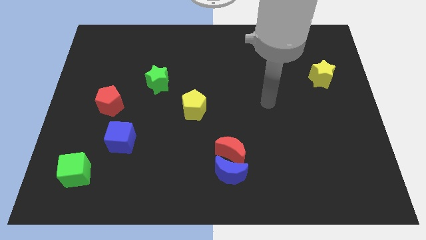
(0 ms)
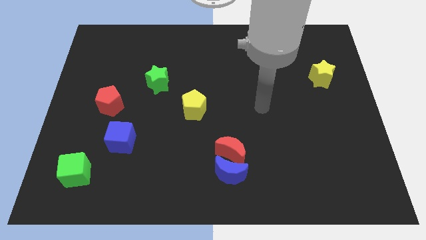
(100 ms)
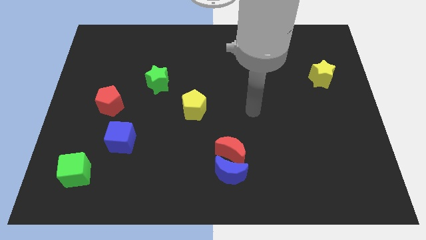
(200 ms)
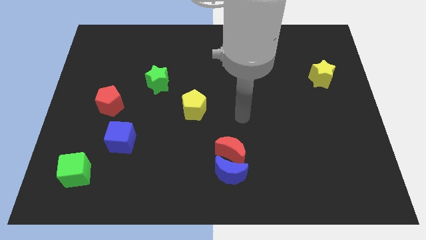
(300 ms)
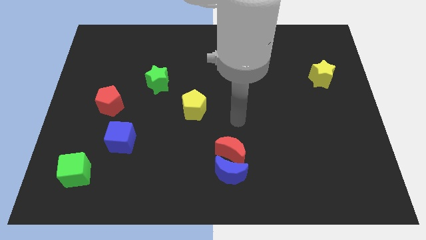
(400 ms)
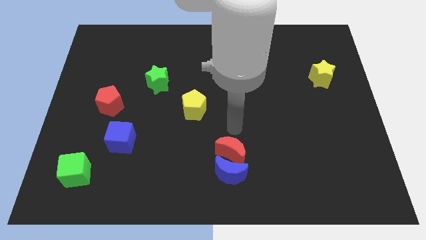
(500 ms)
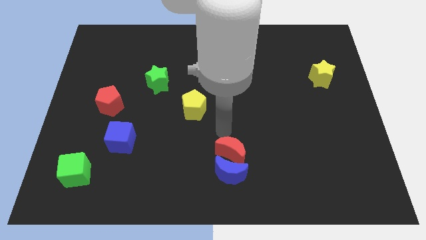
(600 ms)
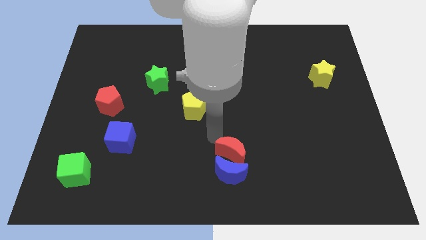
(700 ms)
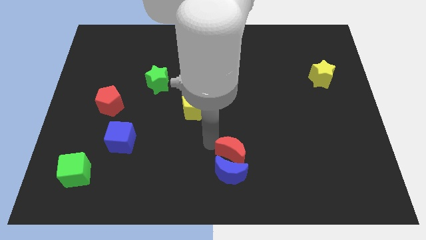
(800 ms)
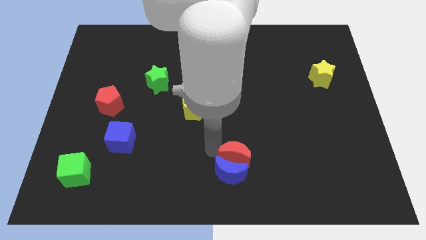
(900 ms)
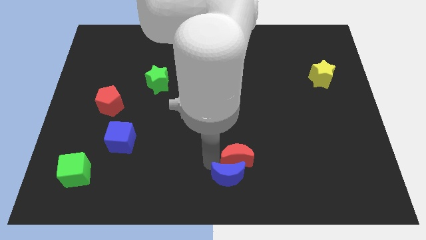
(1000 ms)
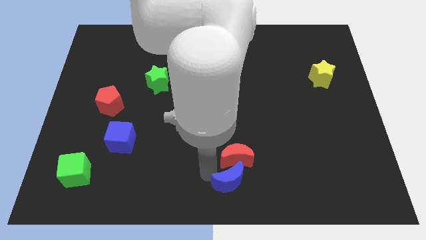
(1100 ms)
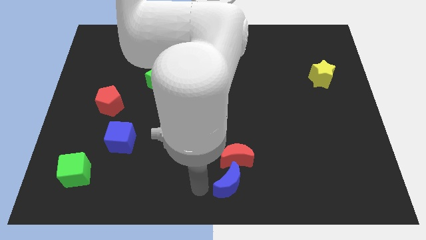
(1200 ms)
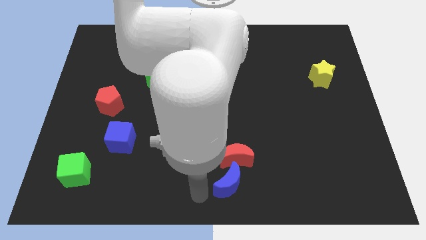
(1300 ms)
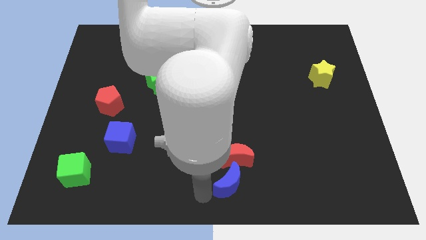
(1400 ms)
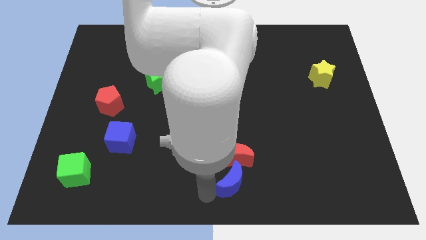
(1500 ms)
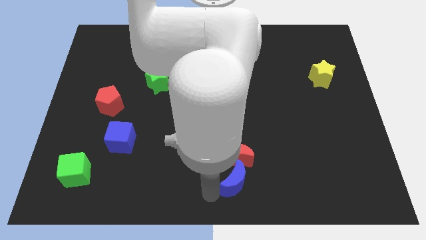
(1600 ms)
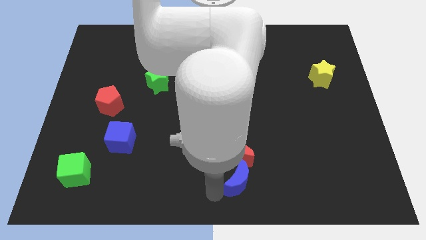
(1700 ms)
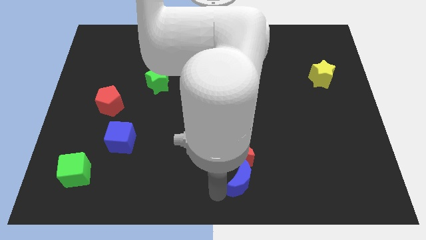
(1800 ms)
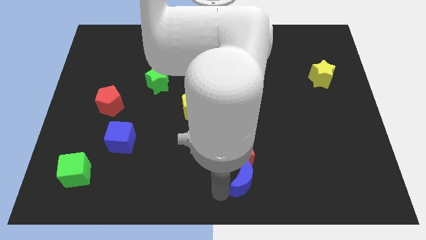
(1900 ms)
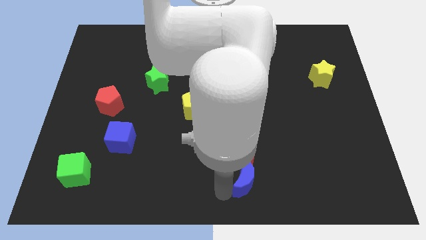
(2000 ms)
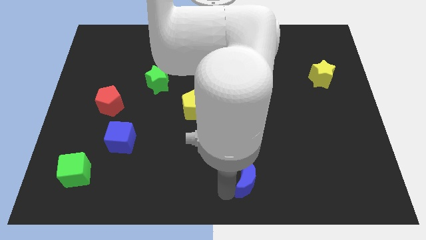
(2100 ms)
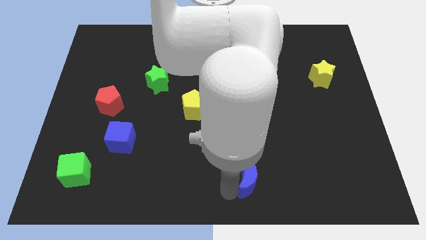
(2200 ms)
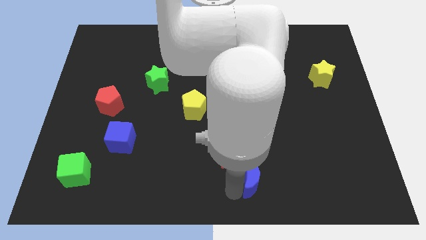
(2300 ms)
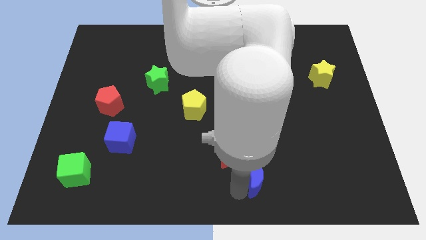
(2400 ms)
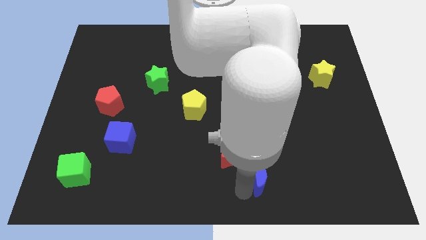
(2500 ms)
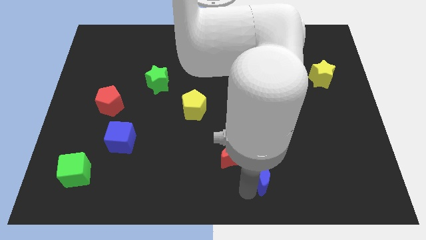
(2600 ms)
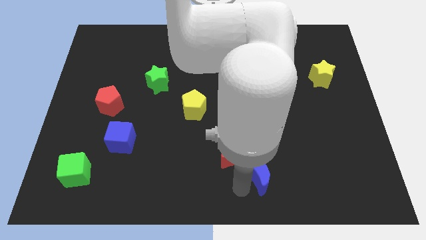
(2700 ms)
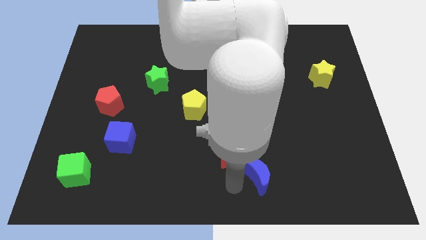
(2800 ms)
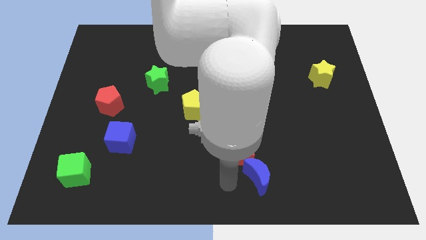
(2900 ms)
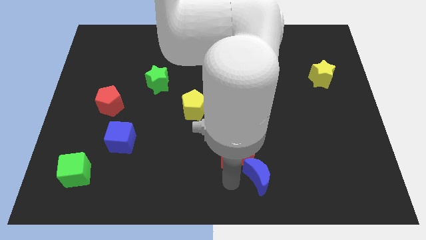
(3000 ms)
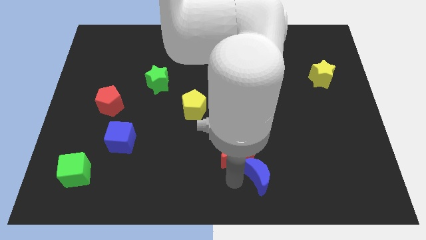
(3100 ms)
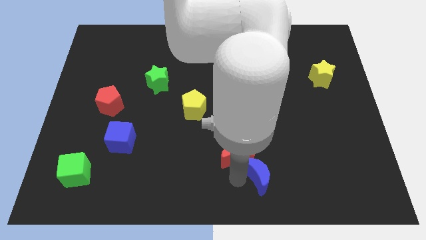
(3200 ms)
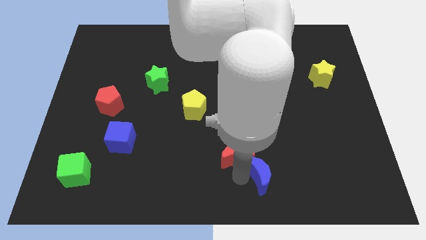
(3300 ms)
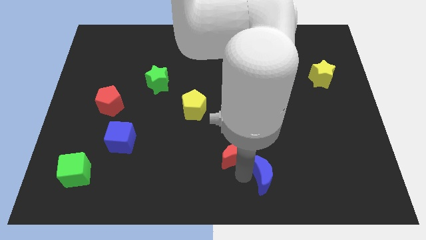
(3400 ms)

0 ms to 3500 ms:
push the blue moon right somewhat

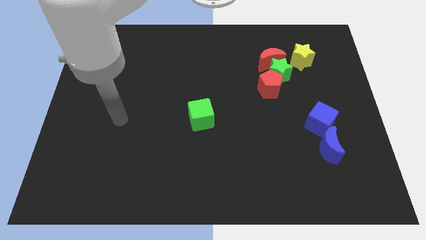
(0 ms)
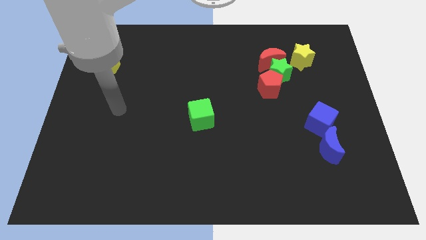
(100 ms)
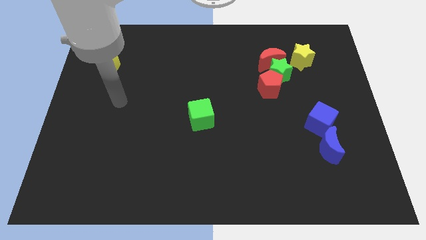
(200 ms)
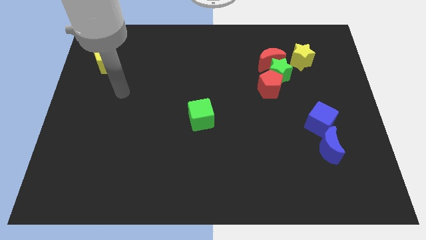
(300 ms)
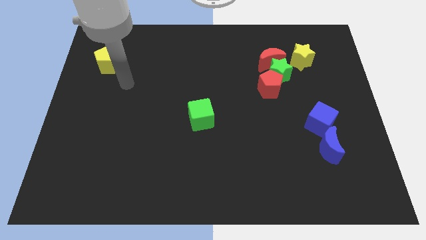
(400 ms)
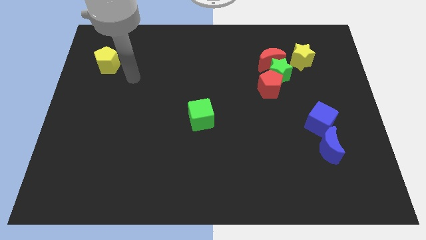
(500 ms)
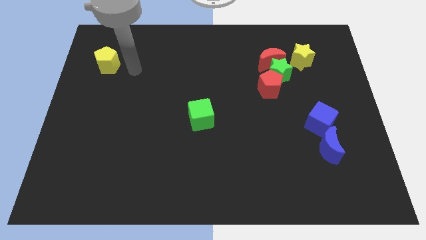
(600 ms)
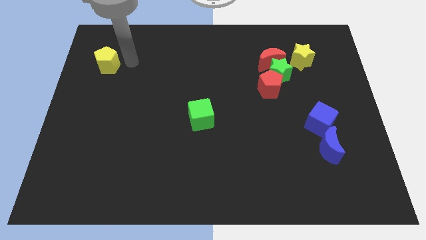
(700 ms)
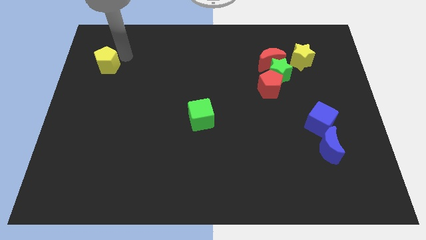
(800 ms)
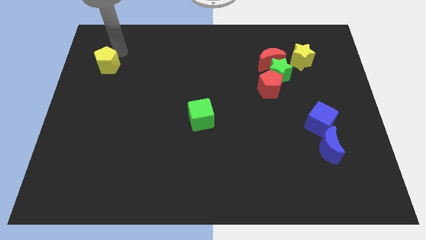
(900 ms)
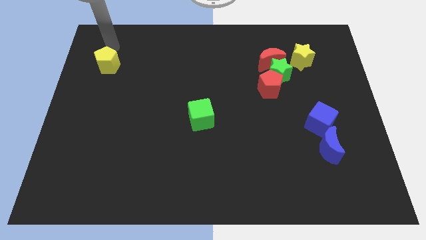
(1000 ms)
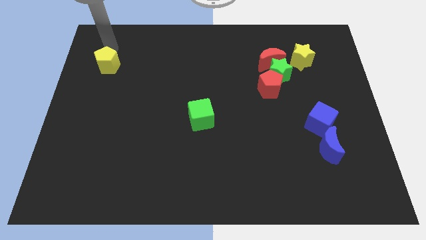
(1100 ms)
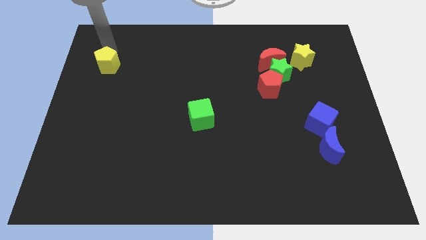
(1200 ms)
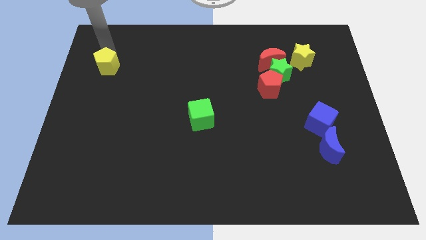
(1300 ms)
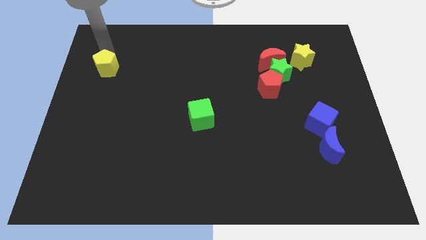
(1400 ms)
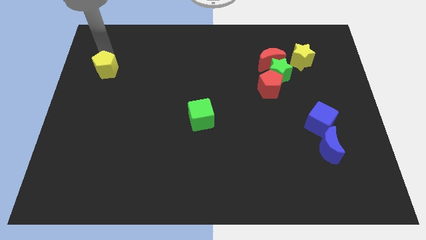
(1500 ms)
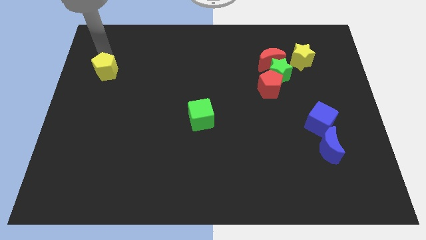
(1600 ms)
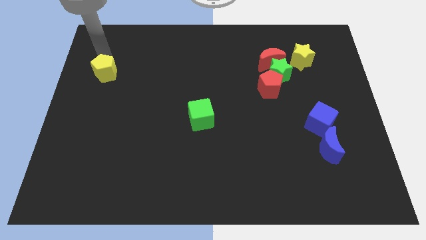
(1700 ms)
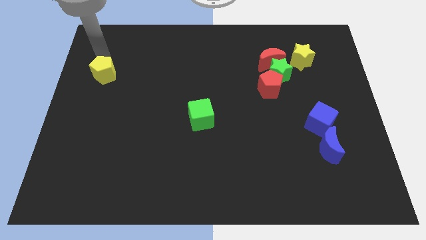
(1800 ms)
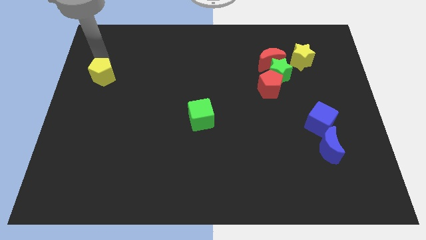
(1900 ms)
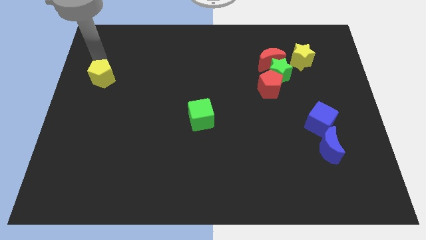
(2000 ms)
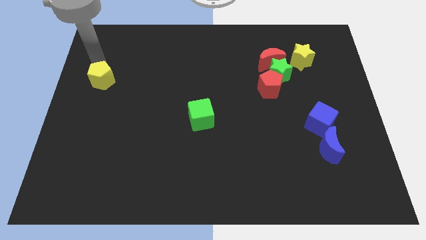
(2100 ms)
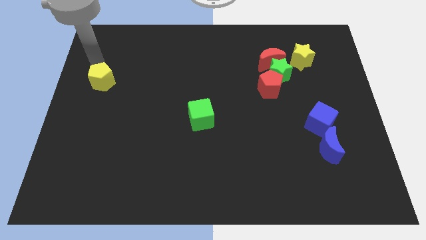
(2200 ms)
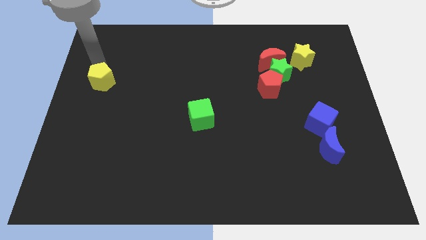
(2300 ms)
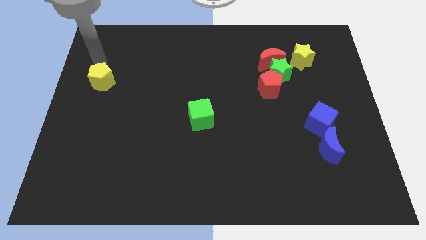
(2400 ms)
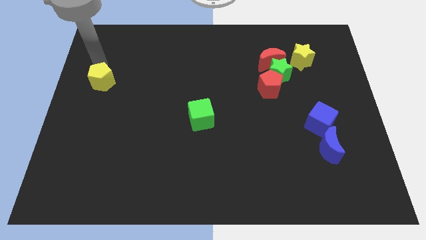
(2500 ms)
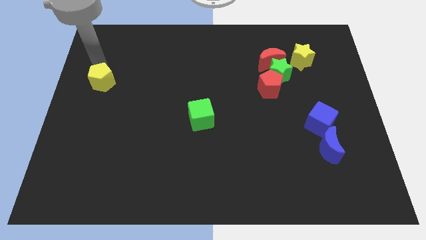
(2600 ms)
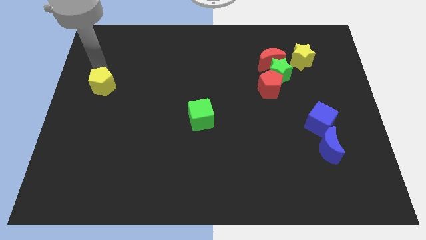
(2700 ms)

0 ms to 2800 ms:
slightly slide the yellow pentagon down

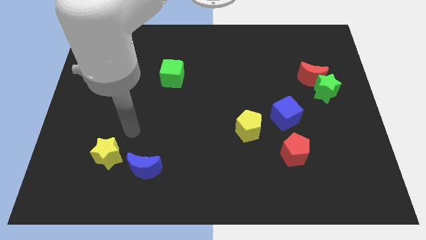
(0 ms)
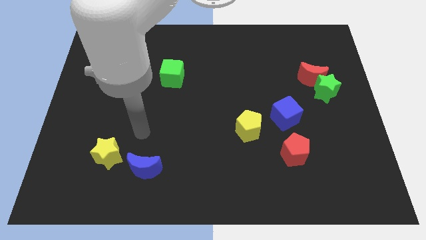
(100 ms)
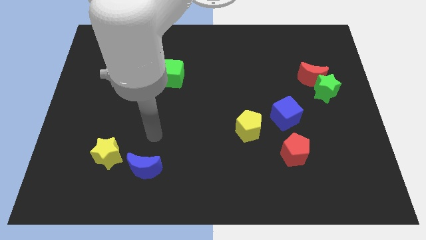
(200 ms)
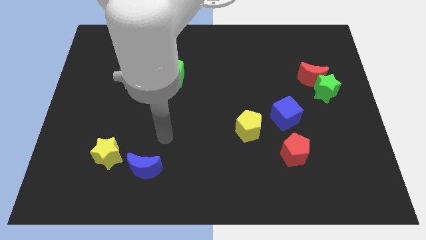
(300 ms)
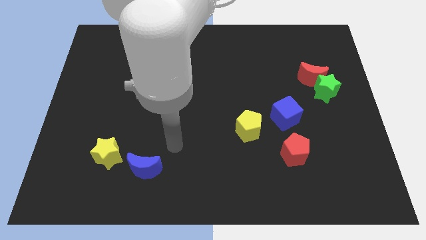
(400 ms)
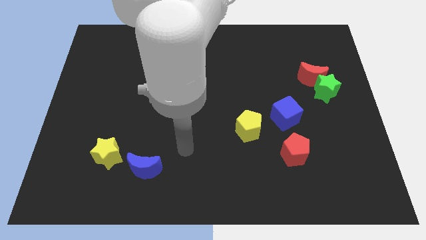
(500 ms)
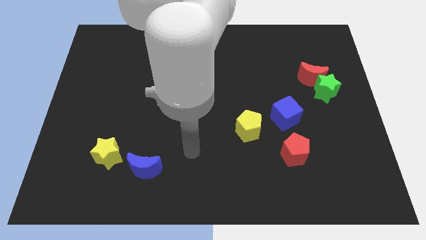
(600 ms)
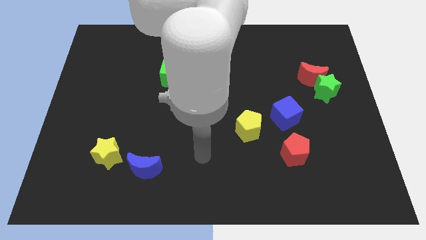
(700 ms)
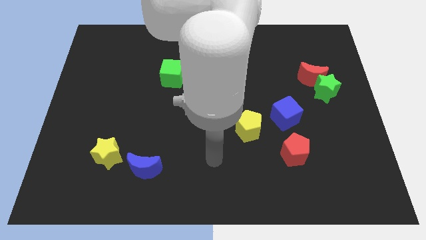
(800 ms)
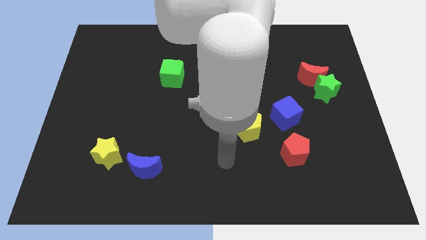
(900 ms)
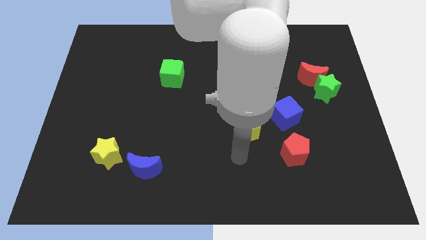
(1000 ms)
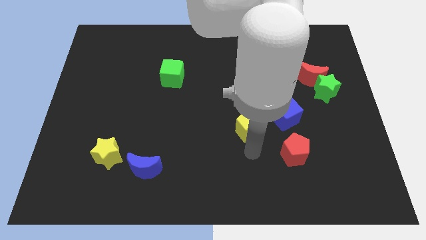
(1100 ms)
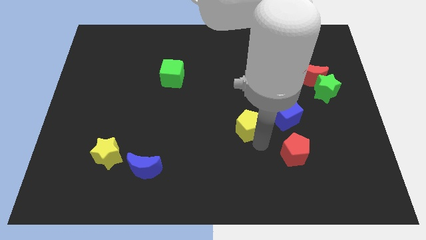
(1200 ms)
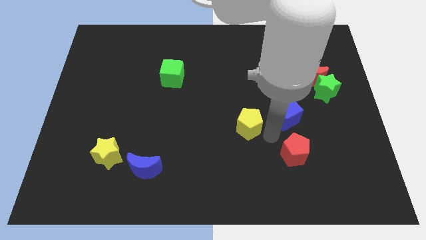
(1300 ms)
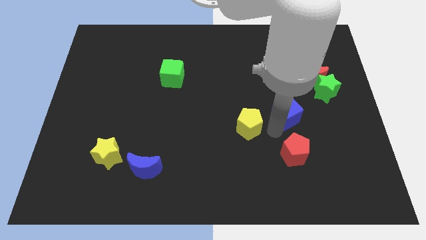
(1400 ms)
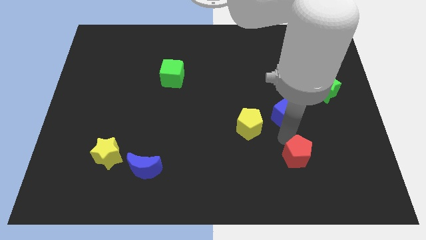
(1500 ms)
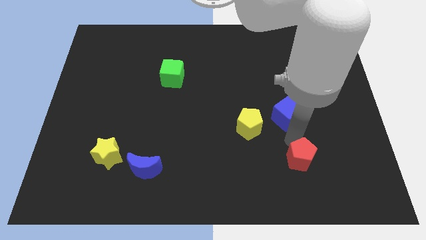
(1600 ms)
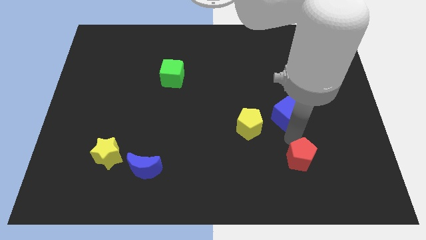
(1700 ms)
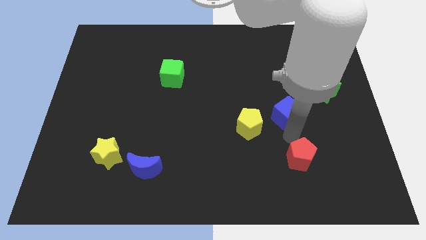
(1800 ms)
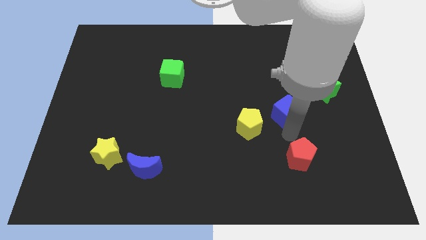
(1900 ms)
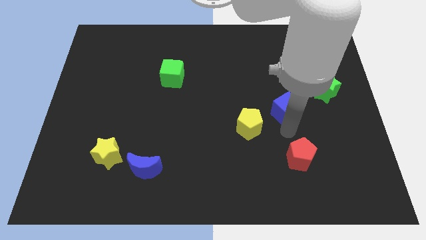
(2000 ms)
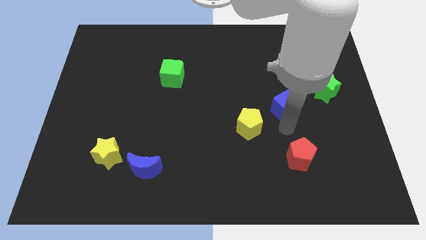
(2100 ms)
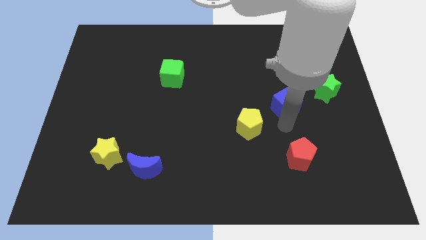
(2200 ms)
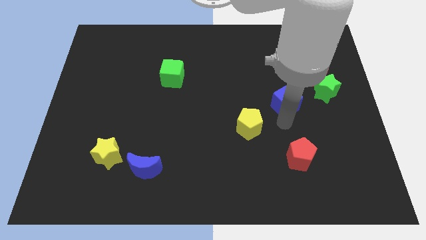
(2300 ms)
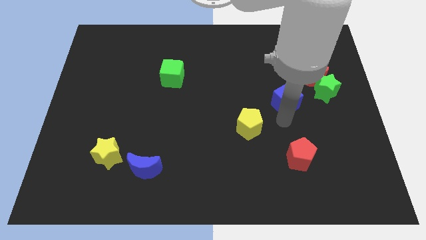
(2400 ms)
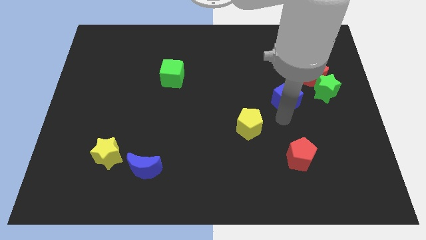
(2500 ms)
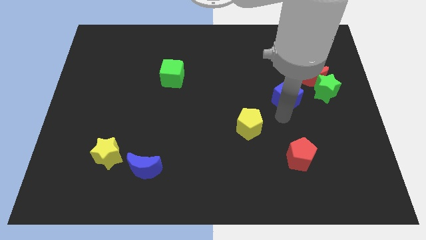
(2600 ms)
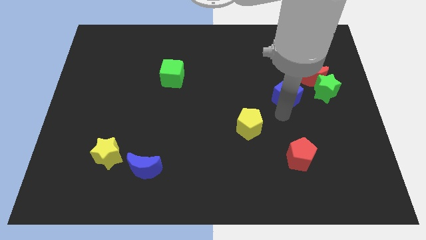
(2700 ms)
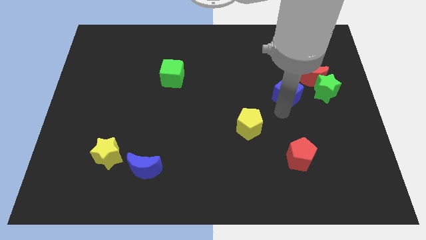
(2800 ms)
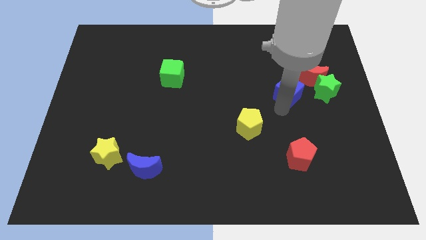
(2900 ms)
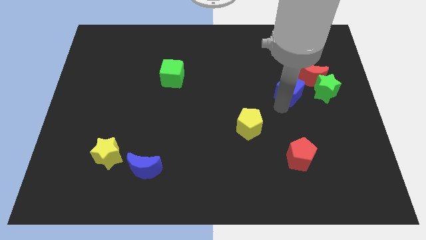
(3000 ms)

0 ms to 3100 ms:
push the blue cube slightly upwards
